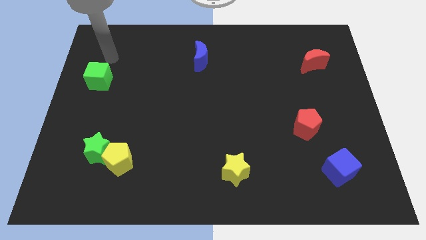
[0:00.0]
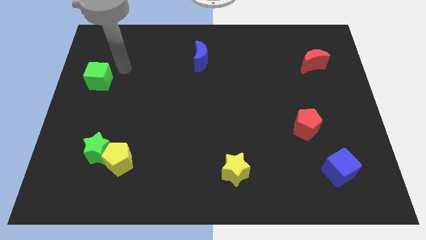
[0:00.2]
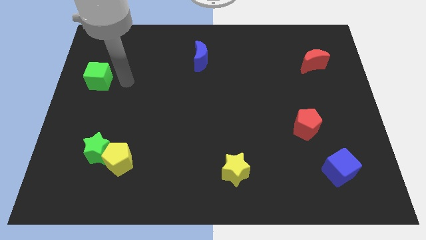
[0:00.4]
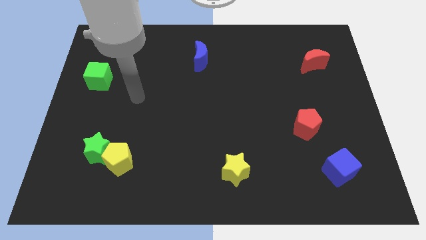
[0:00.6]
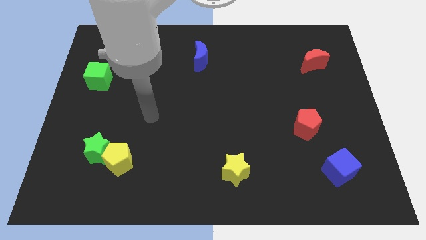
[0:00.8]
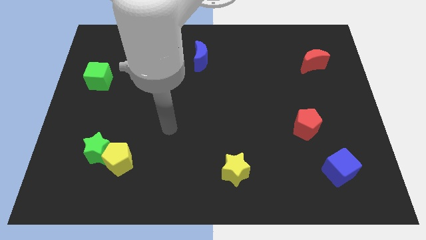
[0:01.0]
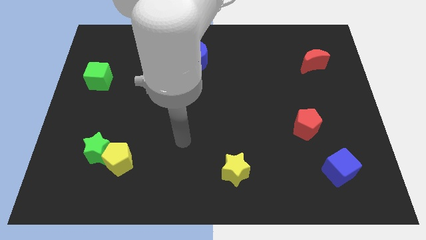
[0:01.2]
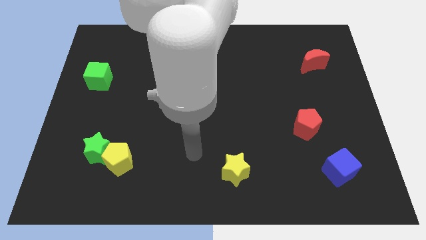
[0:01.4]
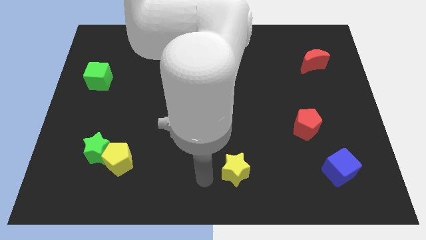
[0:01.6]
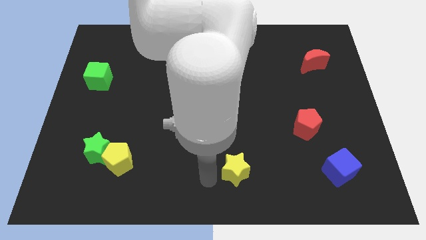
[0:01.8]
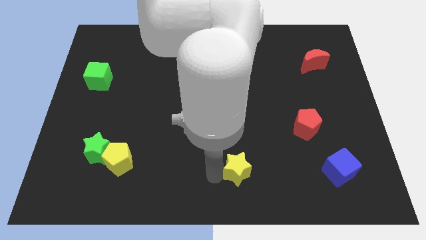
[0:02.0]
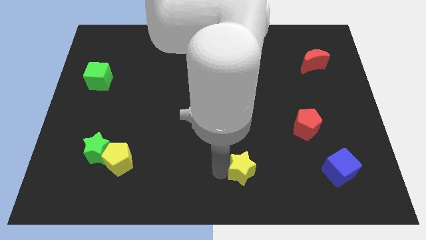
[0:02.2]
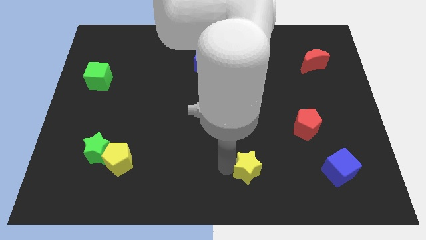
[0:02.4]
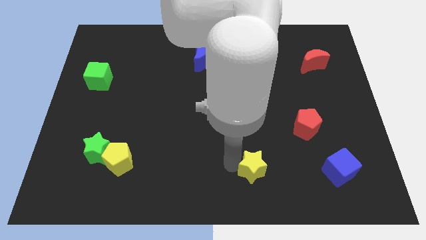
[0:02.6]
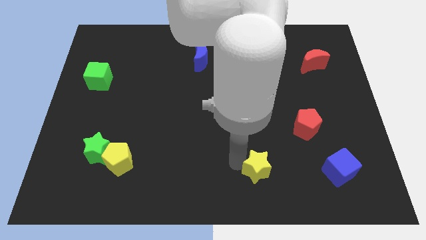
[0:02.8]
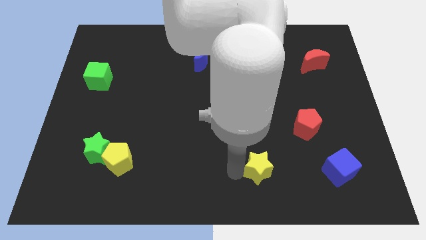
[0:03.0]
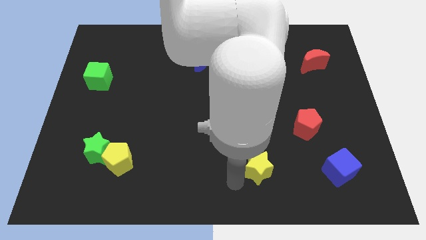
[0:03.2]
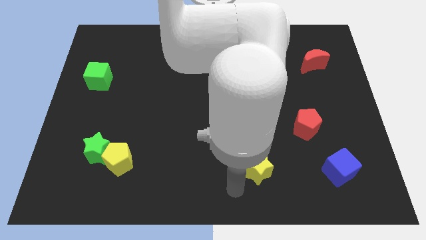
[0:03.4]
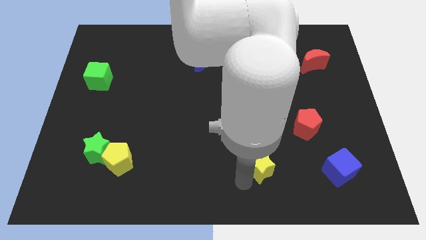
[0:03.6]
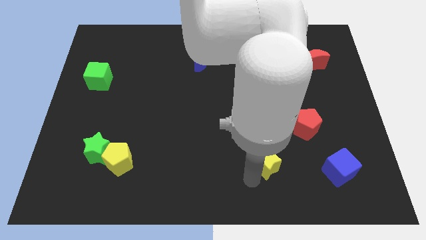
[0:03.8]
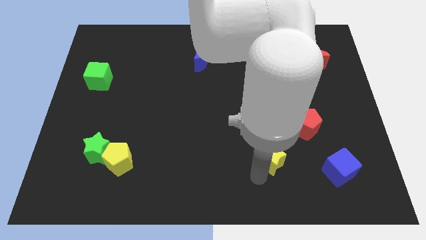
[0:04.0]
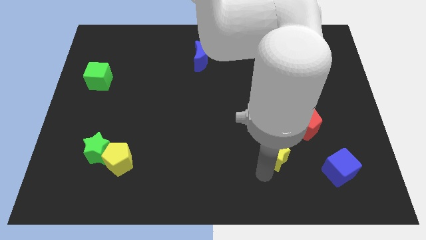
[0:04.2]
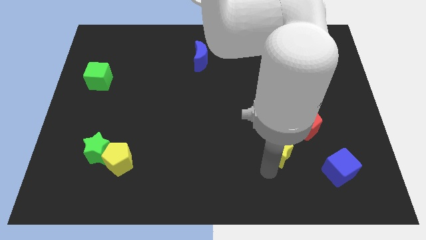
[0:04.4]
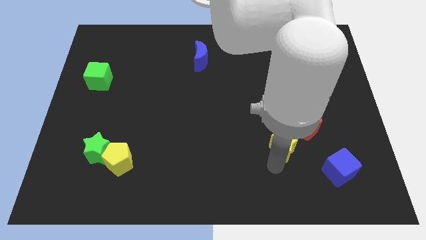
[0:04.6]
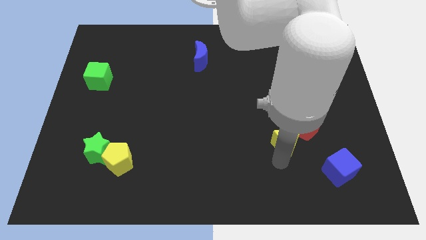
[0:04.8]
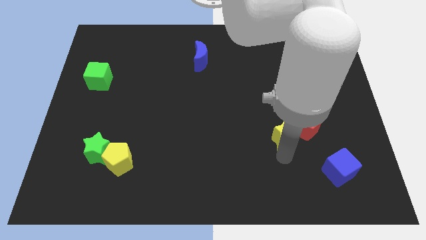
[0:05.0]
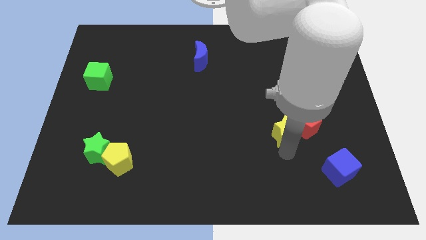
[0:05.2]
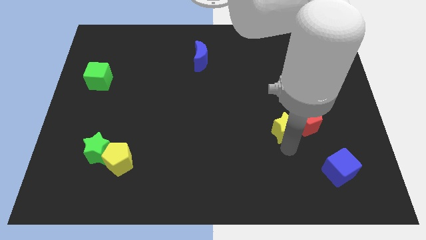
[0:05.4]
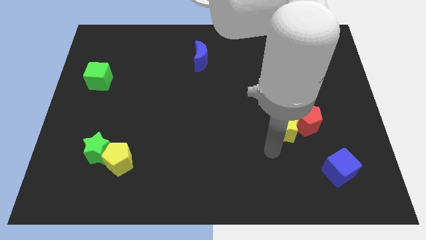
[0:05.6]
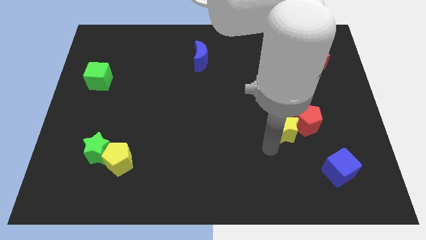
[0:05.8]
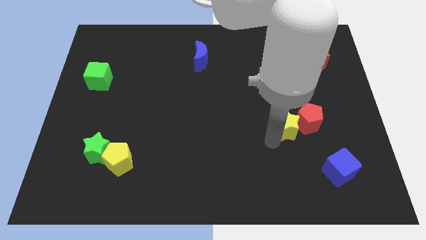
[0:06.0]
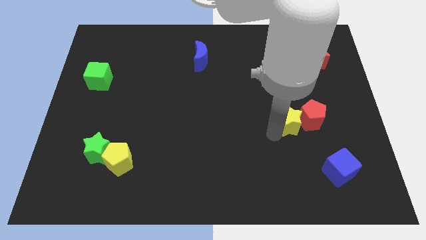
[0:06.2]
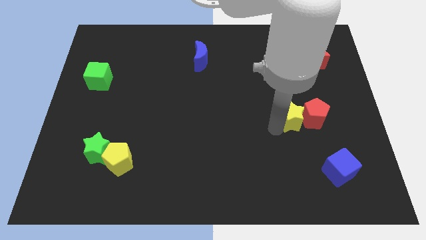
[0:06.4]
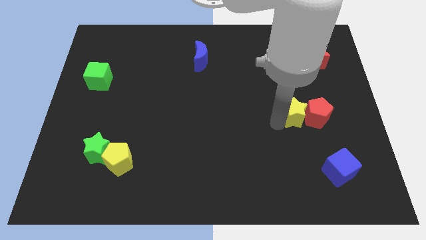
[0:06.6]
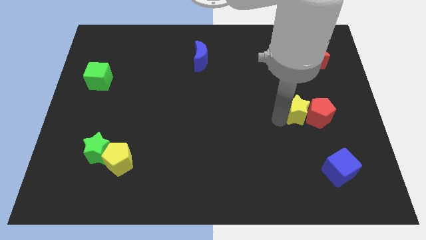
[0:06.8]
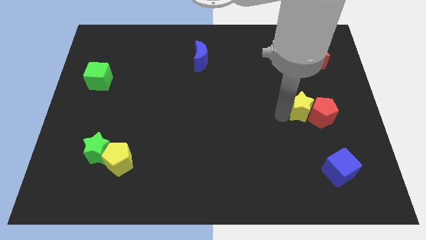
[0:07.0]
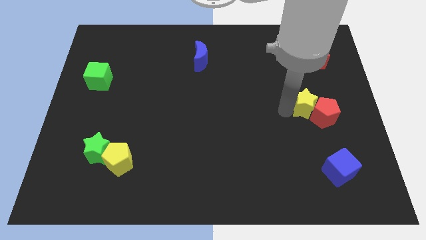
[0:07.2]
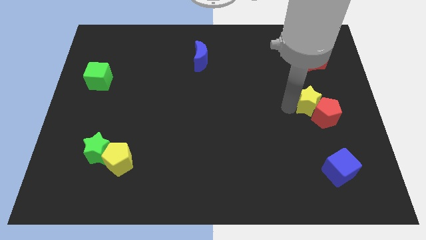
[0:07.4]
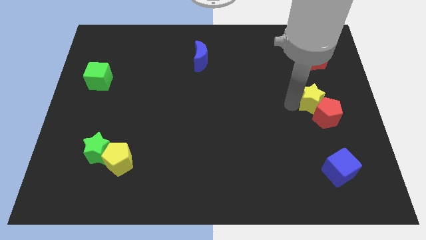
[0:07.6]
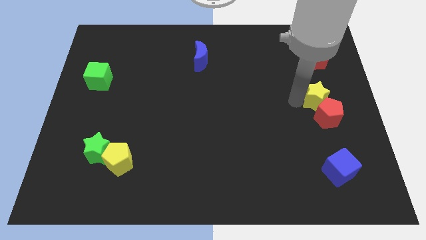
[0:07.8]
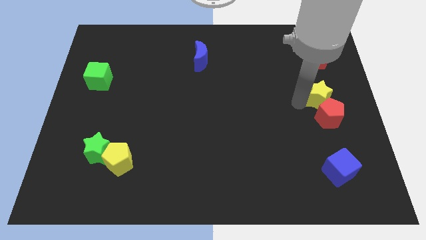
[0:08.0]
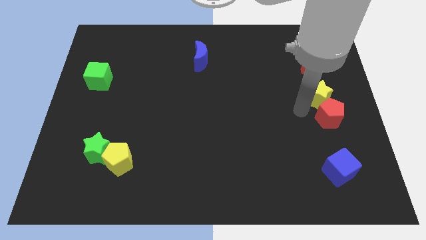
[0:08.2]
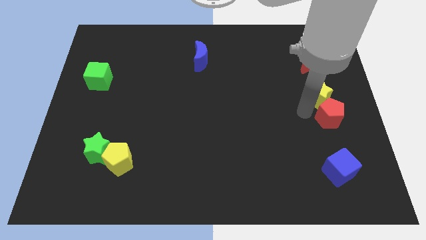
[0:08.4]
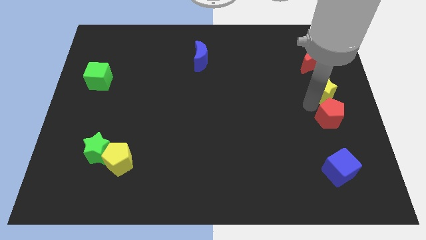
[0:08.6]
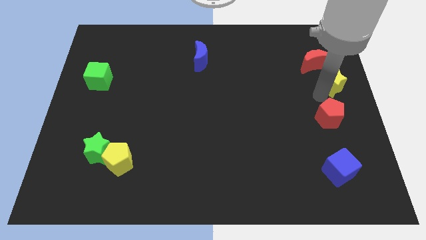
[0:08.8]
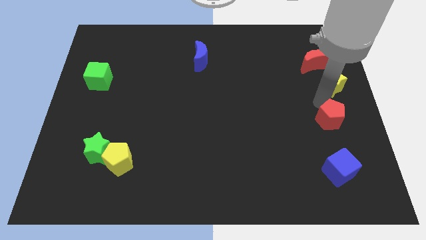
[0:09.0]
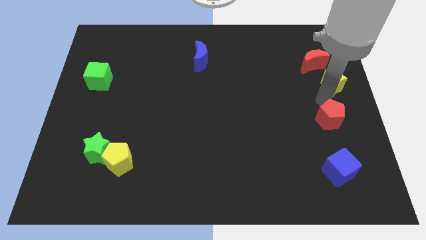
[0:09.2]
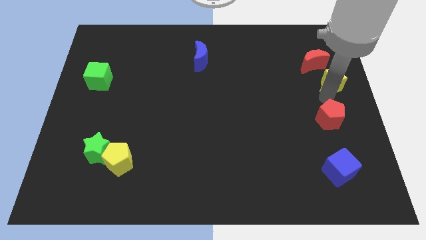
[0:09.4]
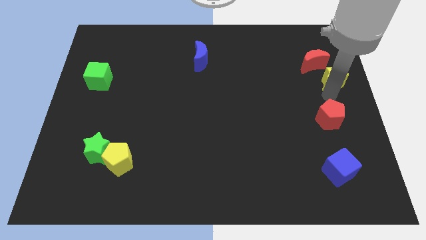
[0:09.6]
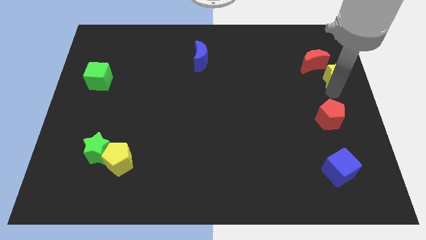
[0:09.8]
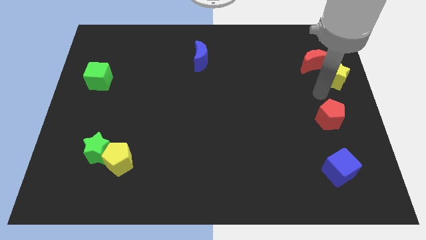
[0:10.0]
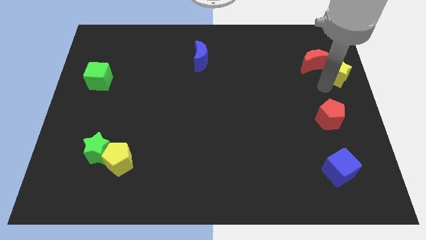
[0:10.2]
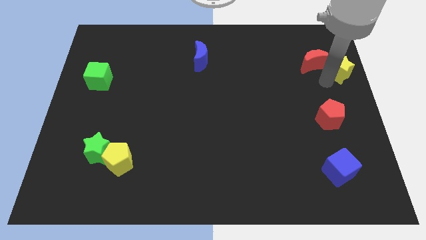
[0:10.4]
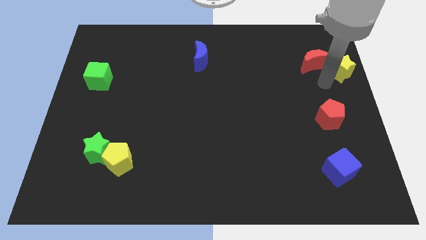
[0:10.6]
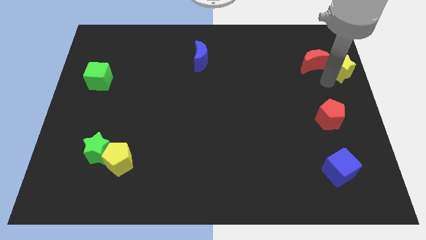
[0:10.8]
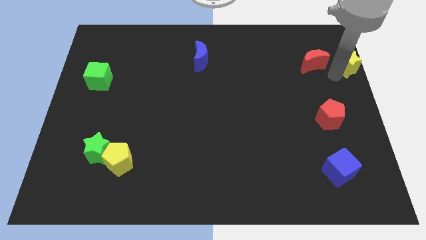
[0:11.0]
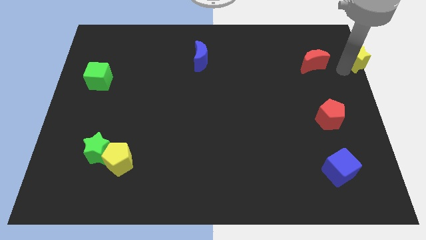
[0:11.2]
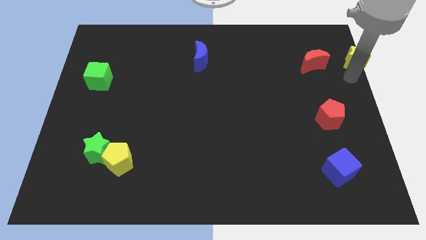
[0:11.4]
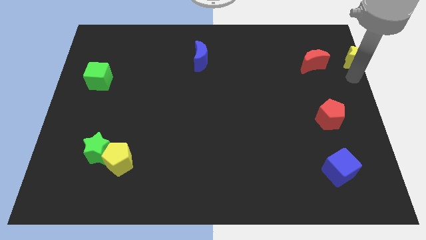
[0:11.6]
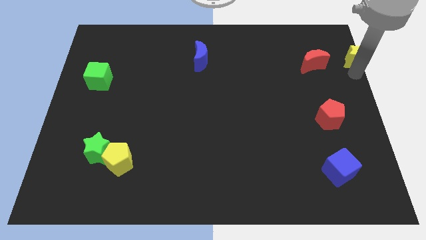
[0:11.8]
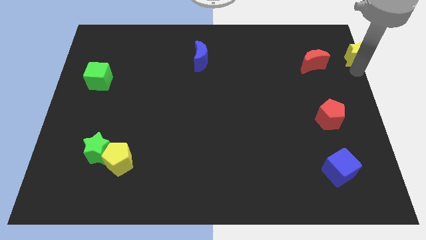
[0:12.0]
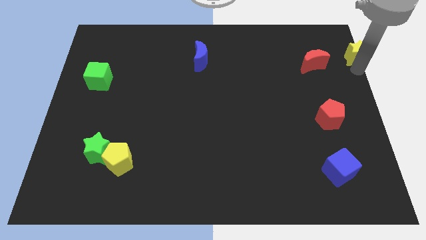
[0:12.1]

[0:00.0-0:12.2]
move the yellow star to the top right of the board
